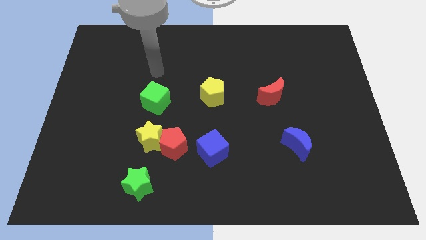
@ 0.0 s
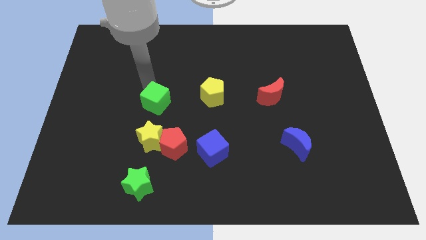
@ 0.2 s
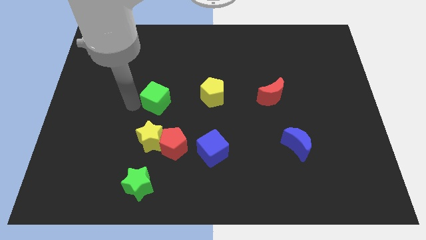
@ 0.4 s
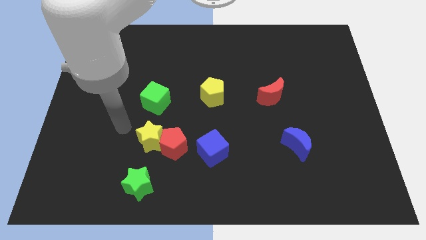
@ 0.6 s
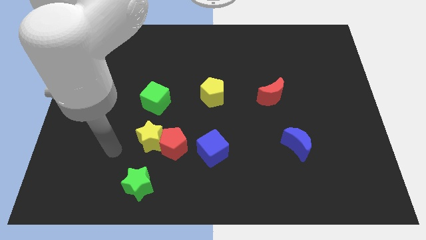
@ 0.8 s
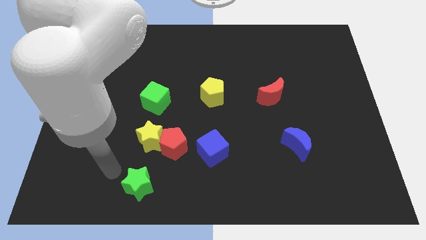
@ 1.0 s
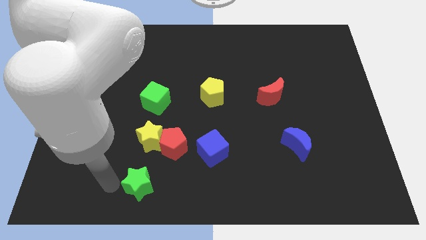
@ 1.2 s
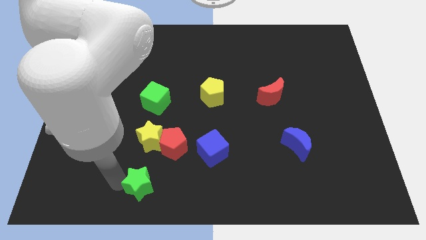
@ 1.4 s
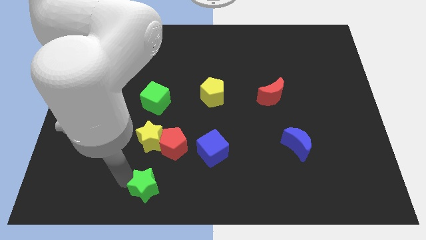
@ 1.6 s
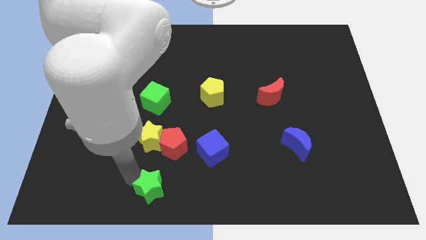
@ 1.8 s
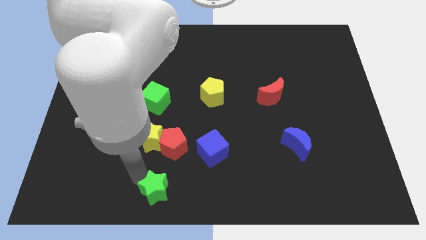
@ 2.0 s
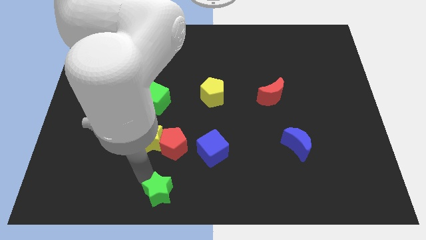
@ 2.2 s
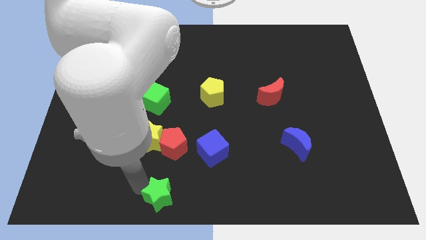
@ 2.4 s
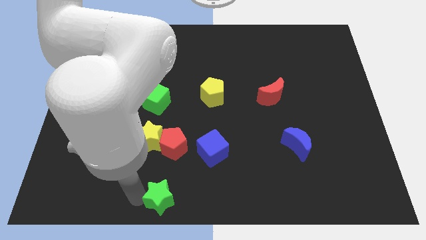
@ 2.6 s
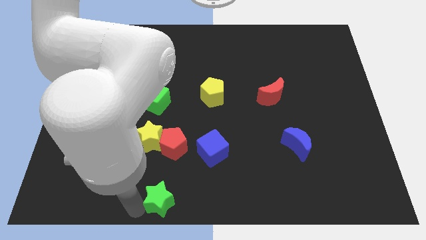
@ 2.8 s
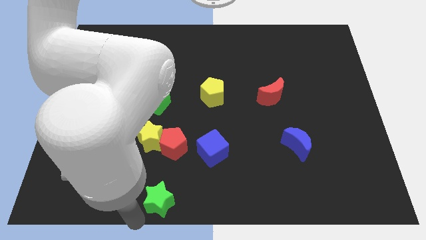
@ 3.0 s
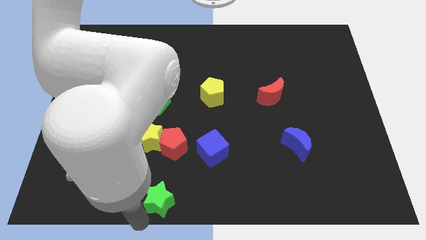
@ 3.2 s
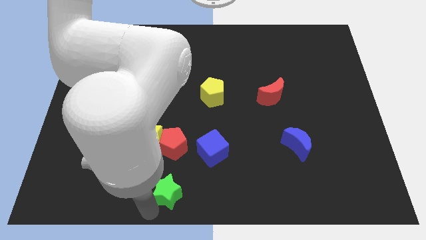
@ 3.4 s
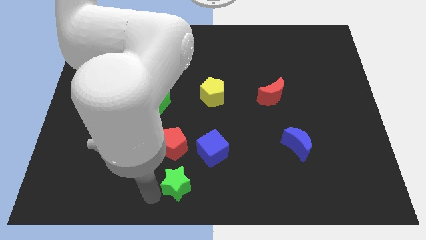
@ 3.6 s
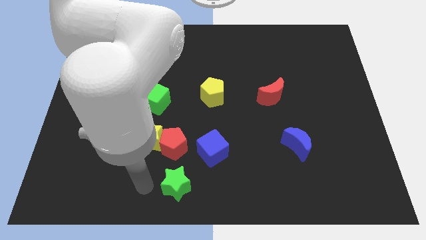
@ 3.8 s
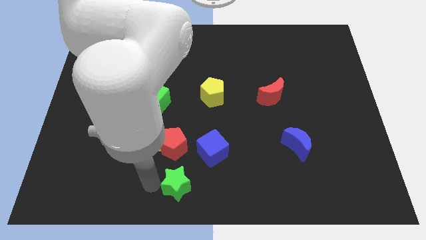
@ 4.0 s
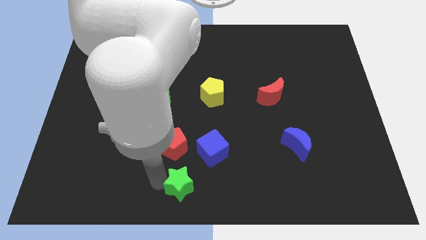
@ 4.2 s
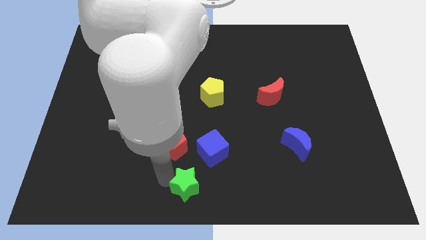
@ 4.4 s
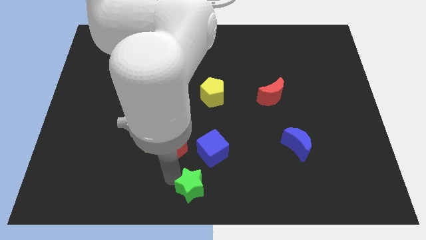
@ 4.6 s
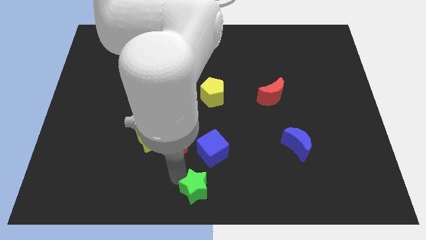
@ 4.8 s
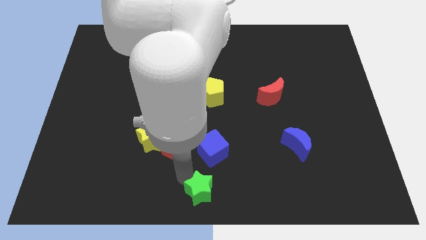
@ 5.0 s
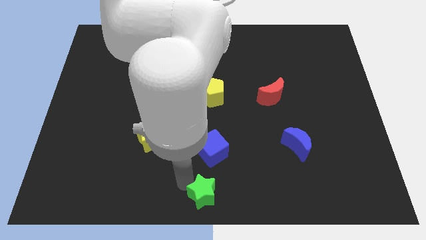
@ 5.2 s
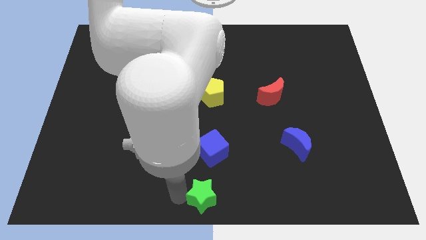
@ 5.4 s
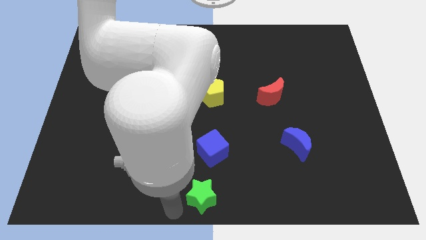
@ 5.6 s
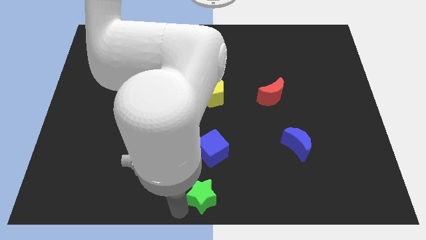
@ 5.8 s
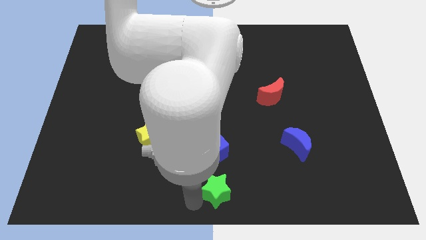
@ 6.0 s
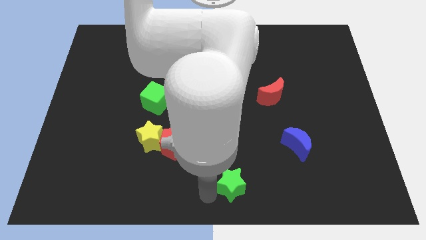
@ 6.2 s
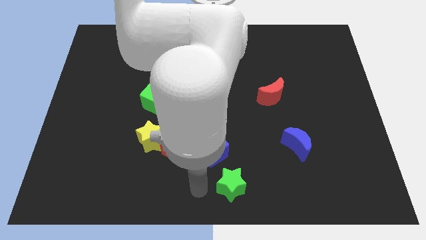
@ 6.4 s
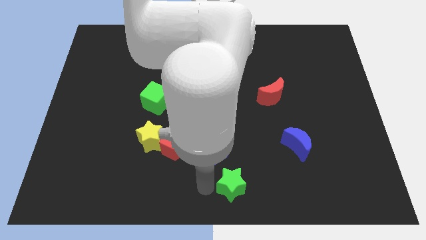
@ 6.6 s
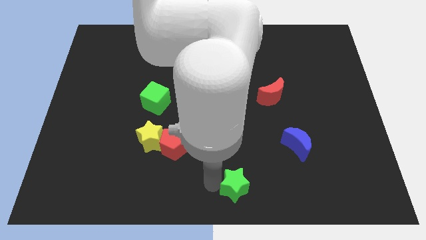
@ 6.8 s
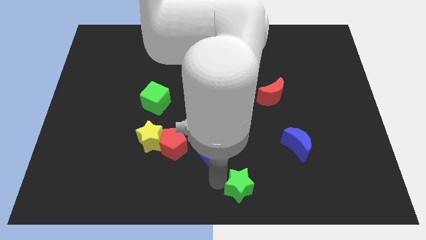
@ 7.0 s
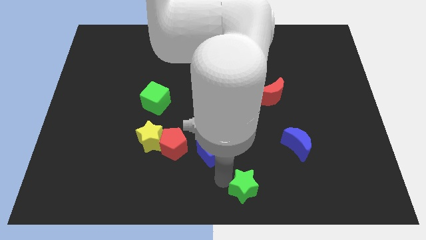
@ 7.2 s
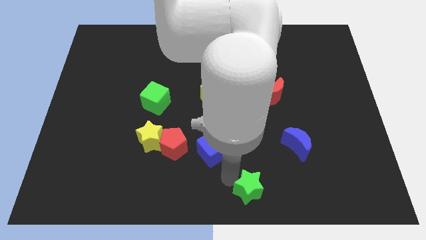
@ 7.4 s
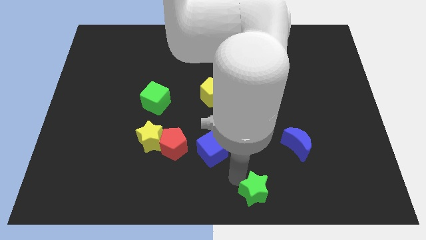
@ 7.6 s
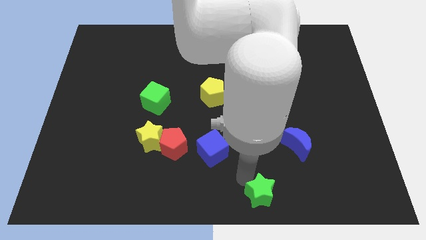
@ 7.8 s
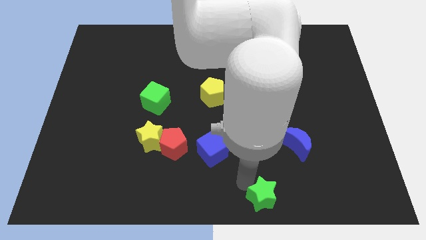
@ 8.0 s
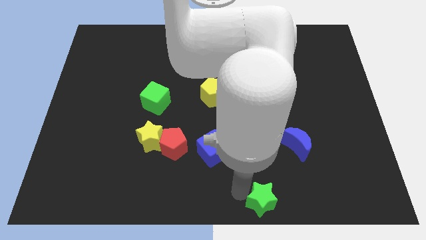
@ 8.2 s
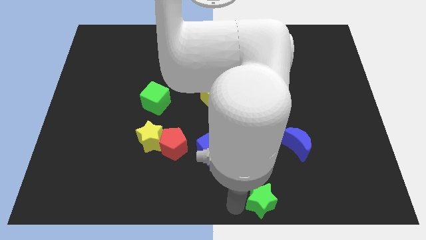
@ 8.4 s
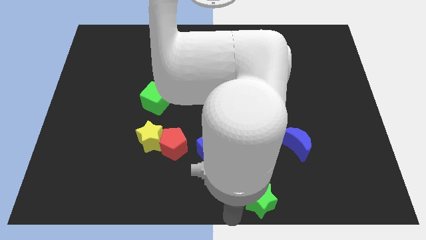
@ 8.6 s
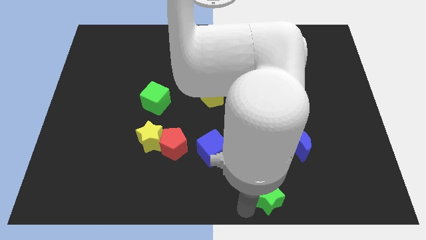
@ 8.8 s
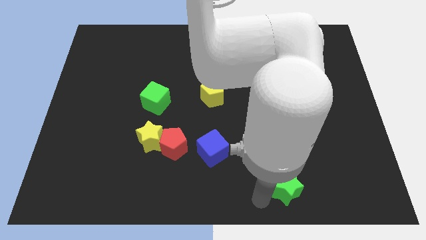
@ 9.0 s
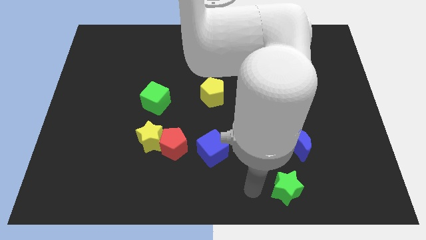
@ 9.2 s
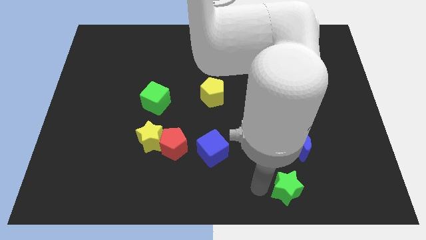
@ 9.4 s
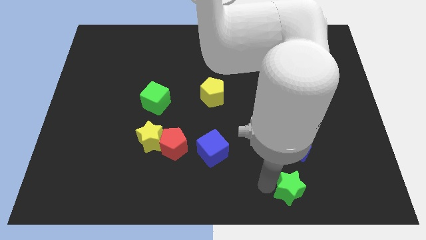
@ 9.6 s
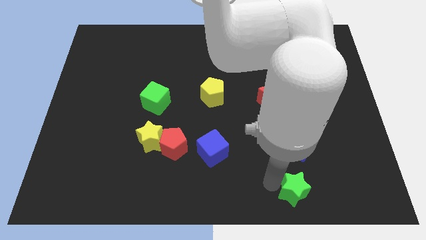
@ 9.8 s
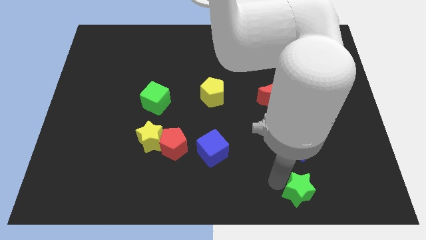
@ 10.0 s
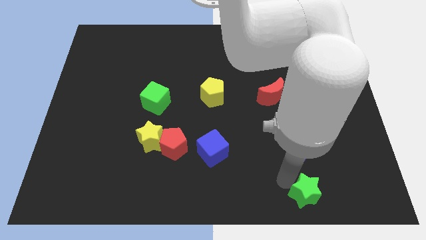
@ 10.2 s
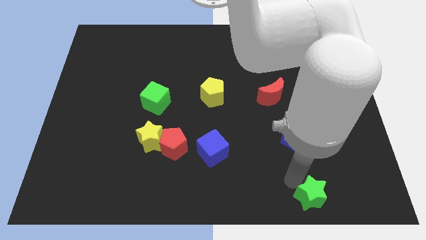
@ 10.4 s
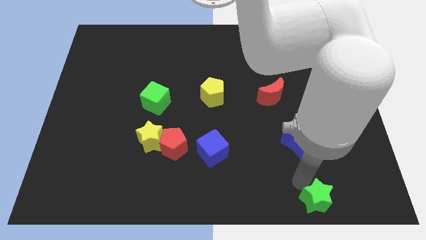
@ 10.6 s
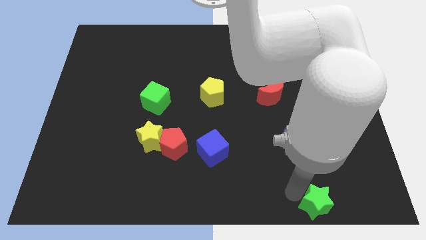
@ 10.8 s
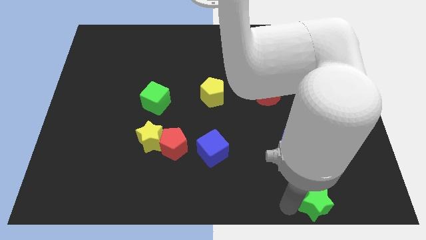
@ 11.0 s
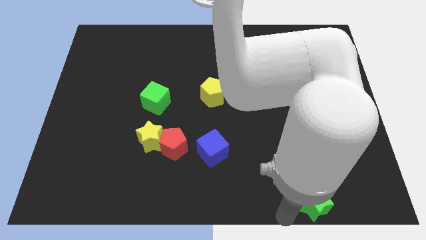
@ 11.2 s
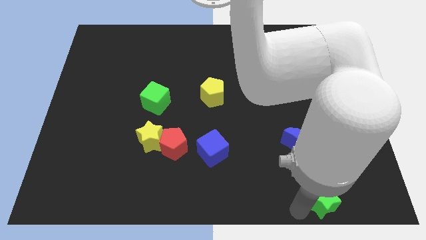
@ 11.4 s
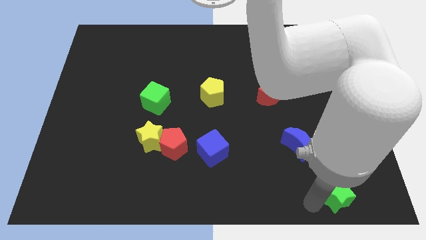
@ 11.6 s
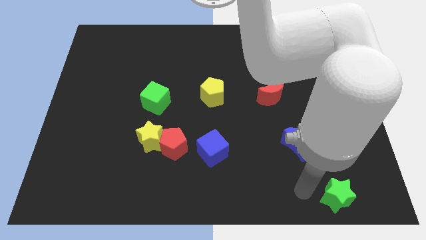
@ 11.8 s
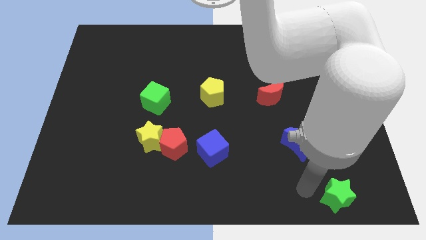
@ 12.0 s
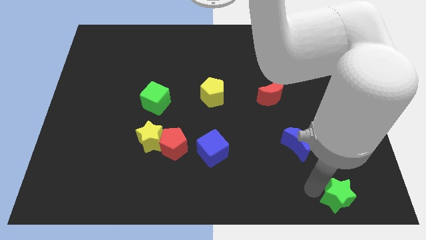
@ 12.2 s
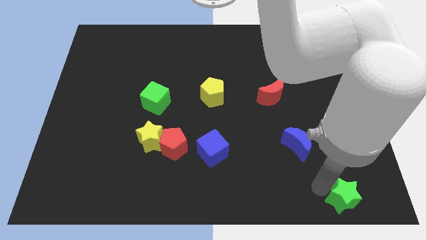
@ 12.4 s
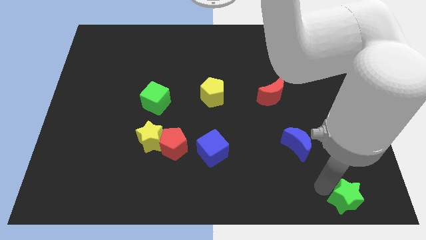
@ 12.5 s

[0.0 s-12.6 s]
slide the green star to the bottom right
